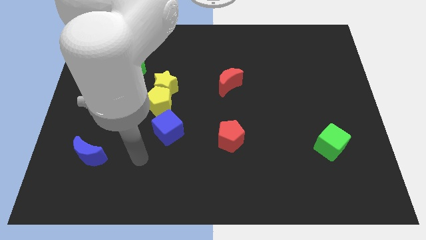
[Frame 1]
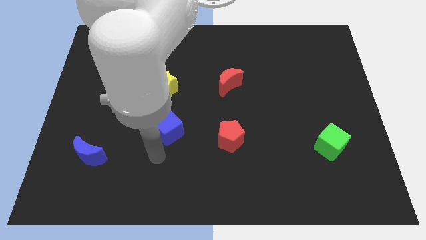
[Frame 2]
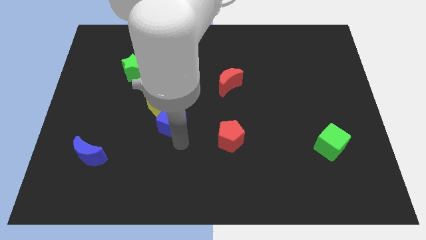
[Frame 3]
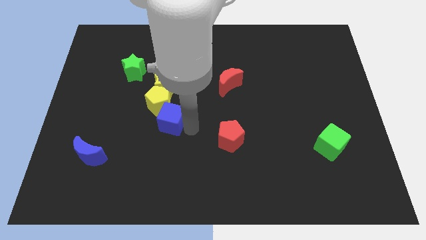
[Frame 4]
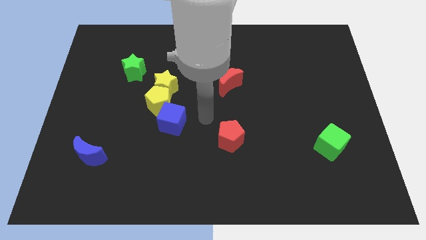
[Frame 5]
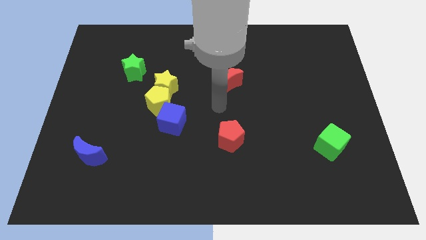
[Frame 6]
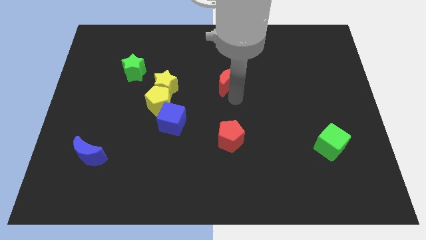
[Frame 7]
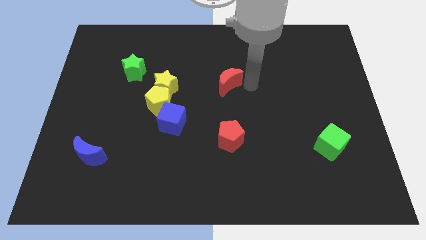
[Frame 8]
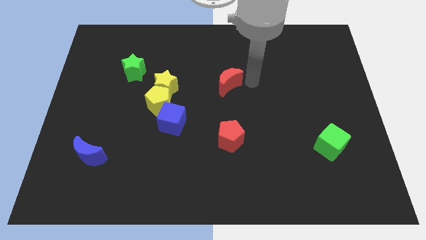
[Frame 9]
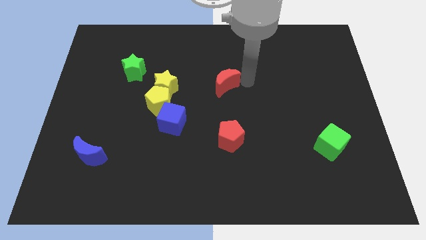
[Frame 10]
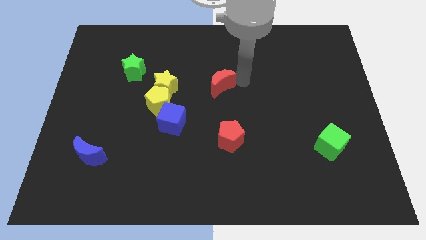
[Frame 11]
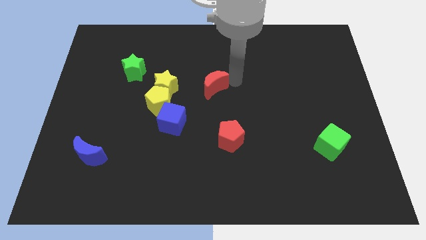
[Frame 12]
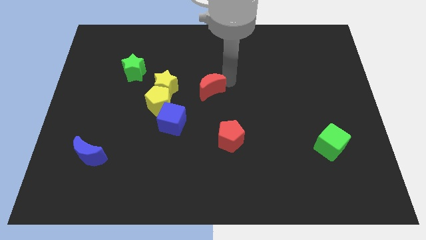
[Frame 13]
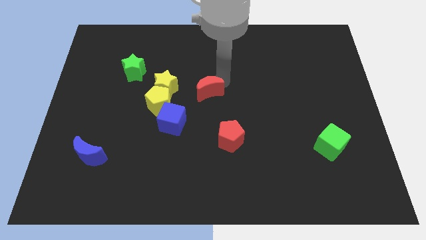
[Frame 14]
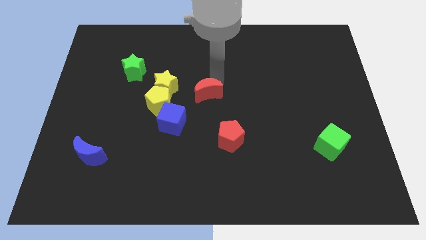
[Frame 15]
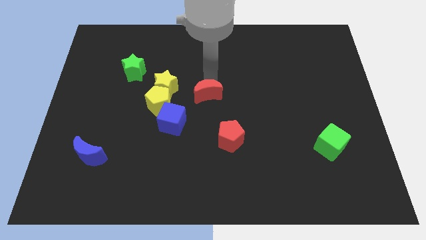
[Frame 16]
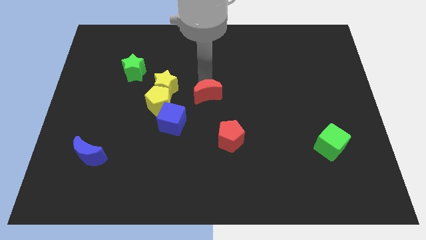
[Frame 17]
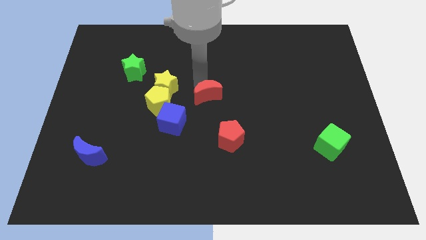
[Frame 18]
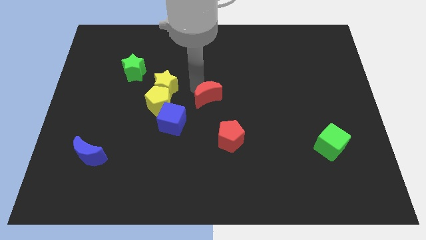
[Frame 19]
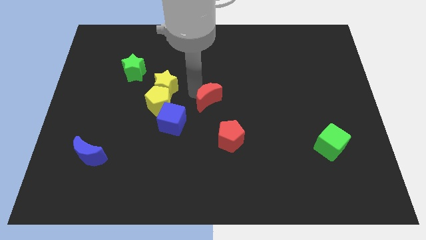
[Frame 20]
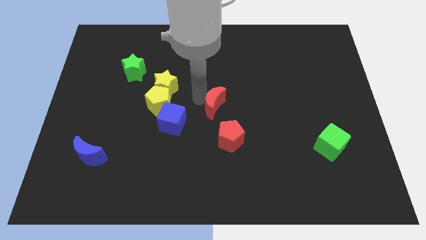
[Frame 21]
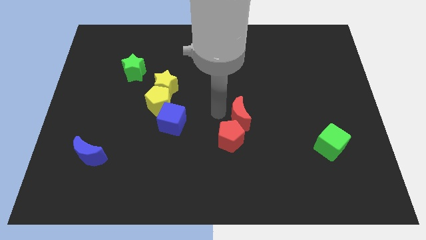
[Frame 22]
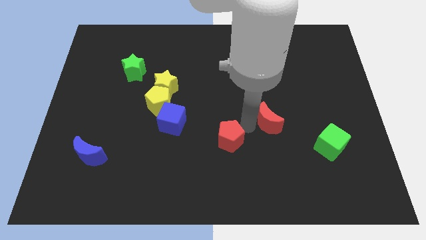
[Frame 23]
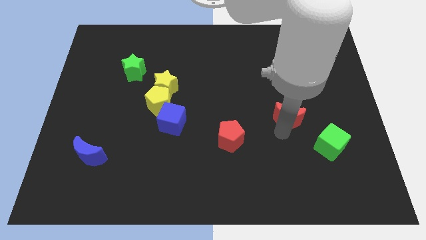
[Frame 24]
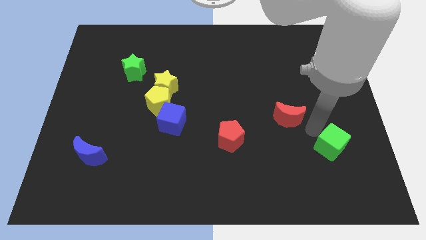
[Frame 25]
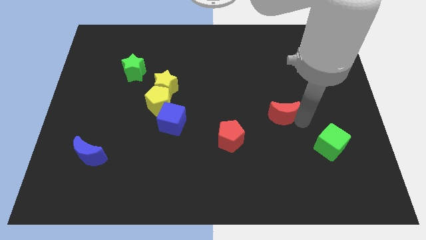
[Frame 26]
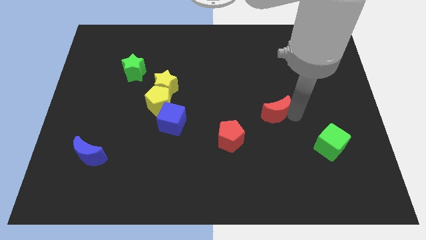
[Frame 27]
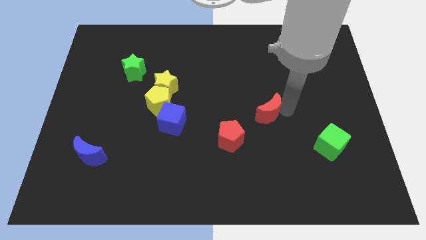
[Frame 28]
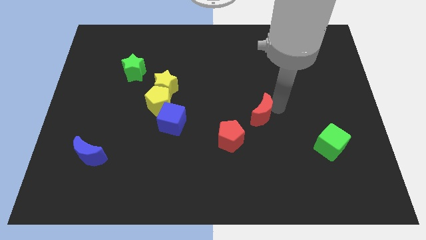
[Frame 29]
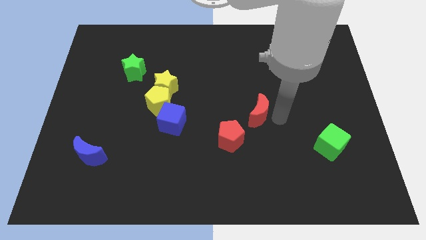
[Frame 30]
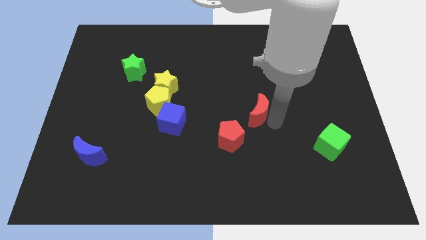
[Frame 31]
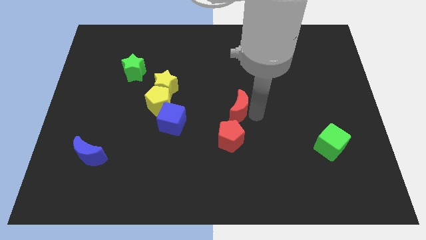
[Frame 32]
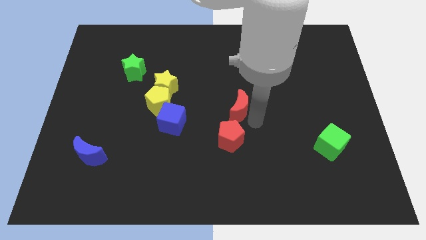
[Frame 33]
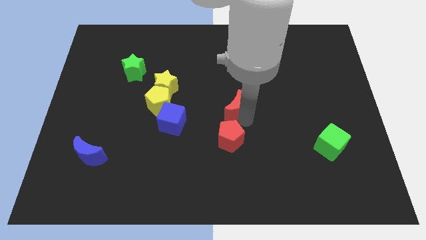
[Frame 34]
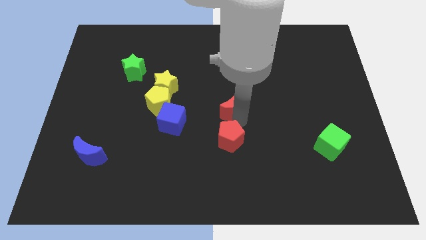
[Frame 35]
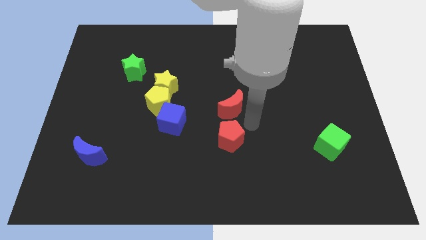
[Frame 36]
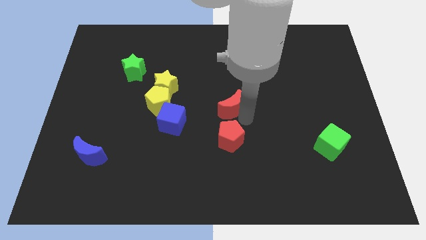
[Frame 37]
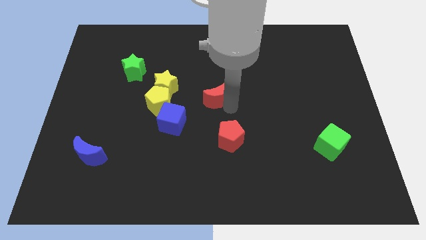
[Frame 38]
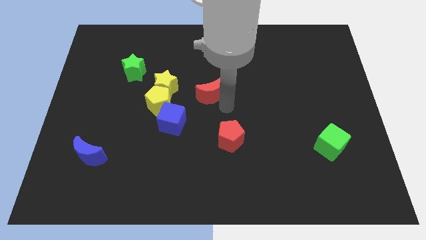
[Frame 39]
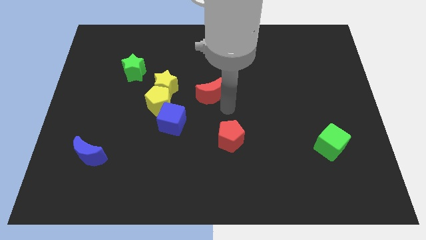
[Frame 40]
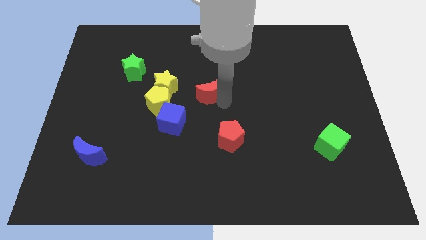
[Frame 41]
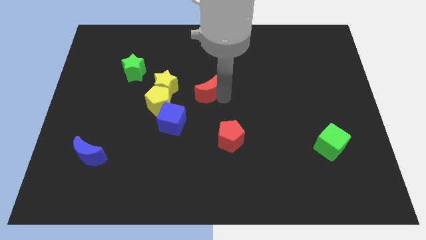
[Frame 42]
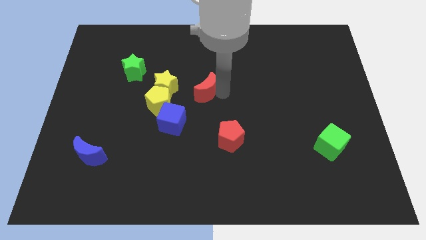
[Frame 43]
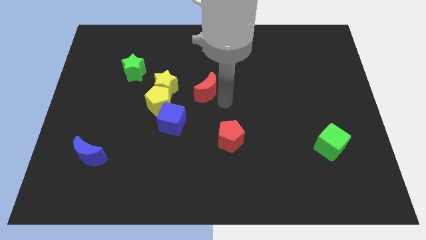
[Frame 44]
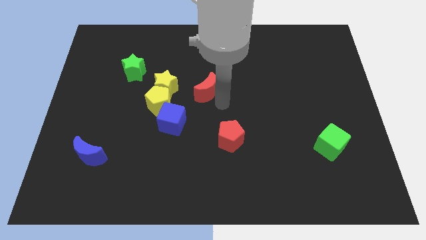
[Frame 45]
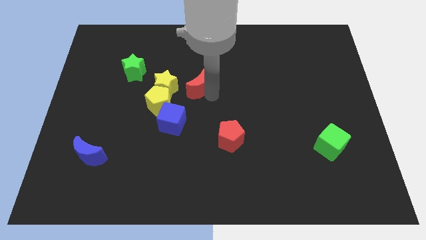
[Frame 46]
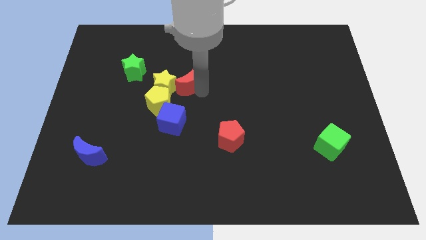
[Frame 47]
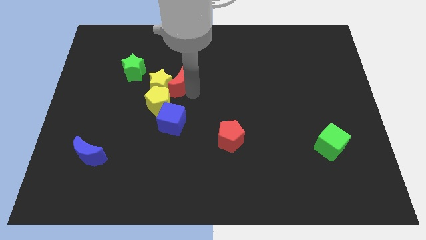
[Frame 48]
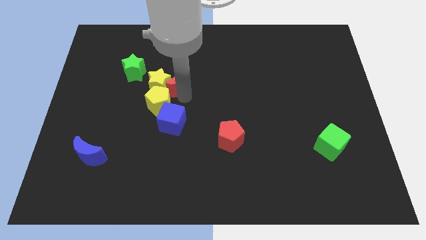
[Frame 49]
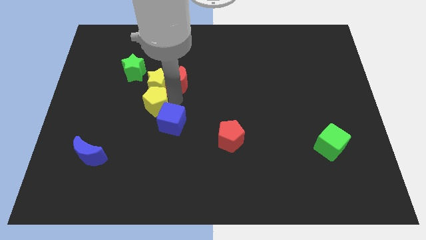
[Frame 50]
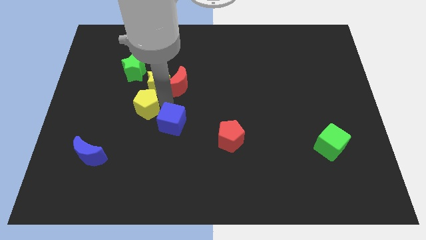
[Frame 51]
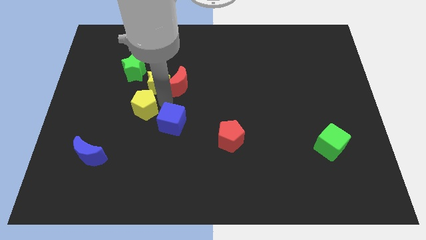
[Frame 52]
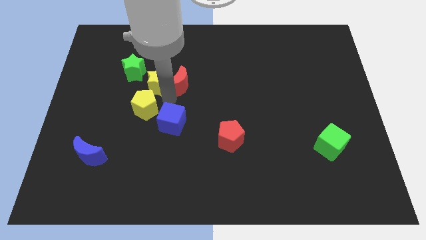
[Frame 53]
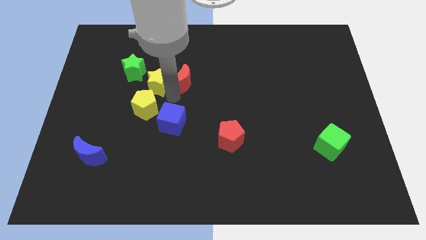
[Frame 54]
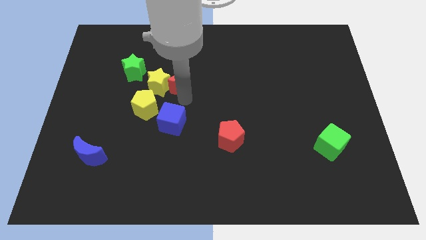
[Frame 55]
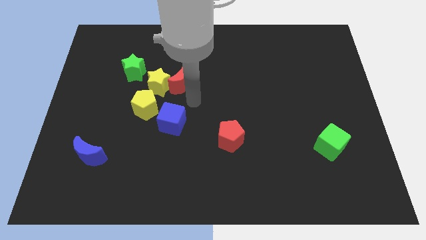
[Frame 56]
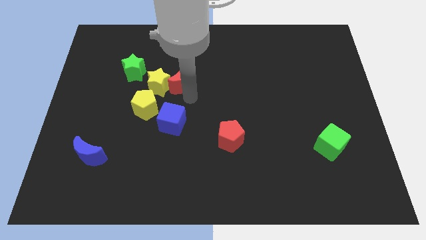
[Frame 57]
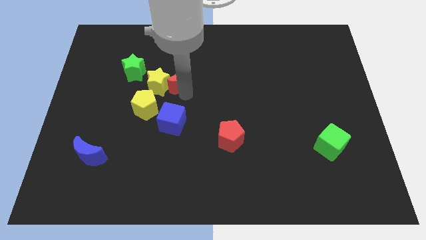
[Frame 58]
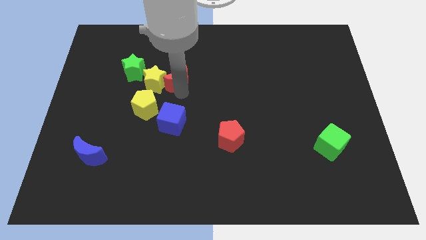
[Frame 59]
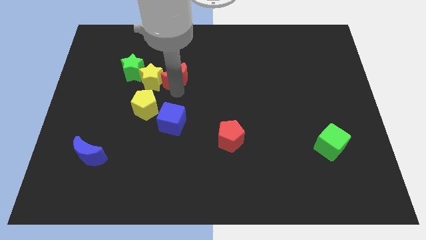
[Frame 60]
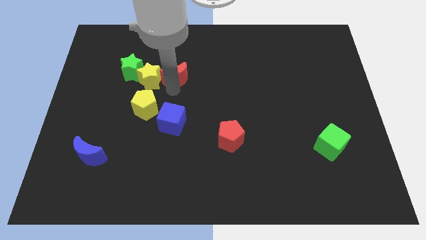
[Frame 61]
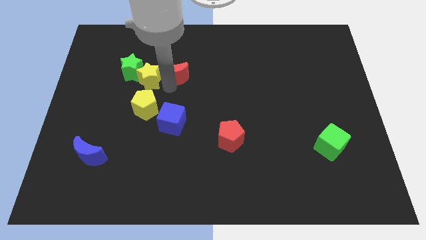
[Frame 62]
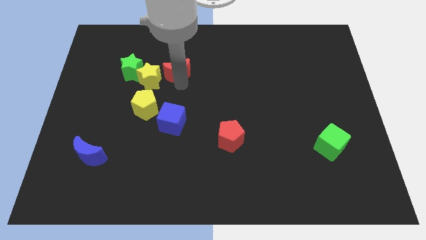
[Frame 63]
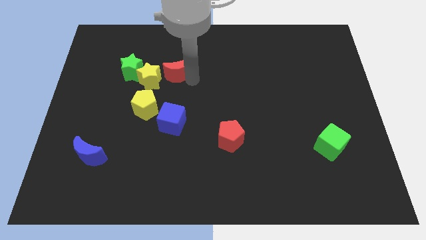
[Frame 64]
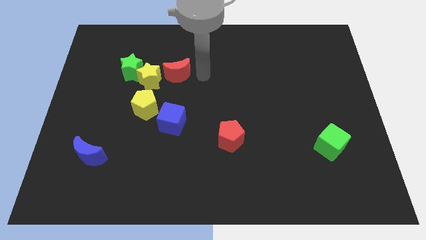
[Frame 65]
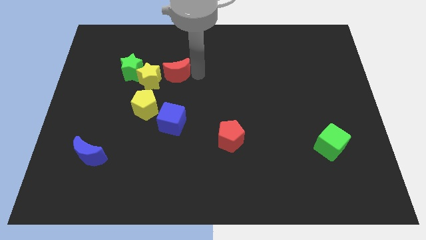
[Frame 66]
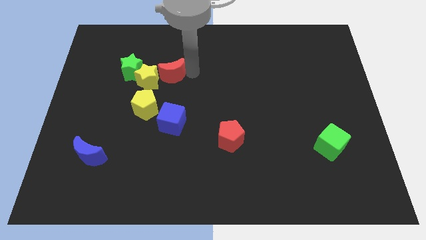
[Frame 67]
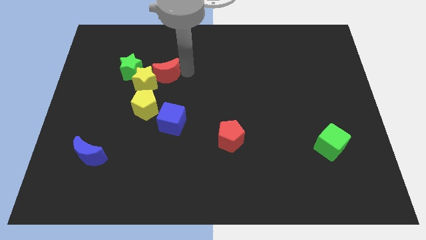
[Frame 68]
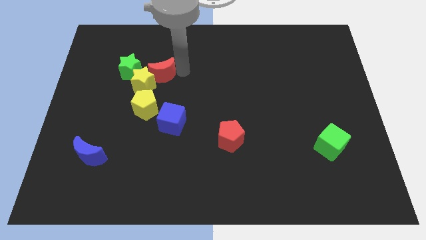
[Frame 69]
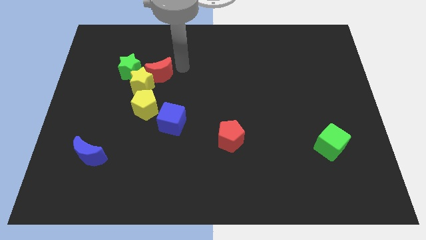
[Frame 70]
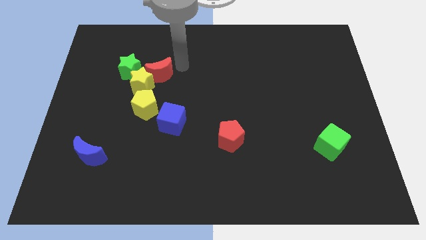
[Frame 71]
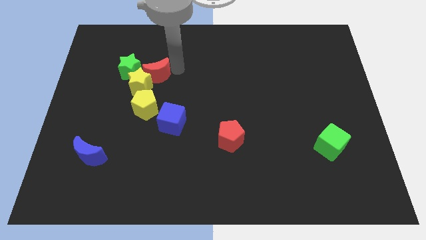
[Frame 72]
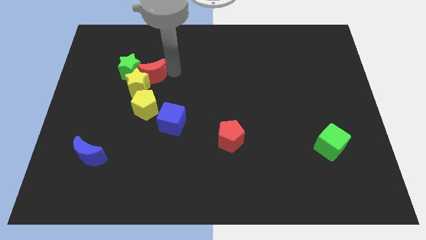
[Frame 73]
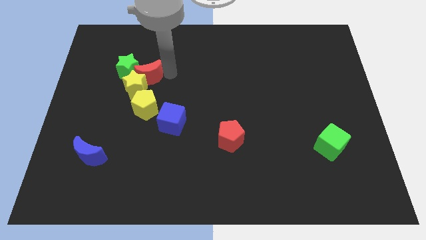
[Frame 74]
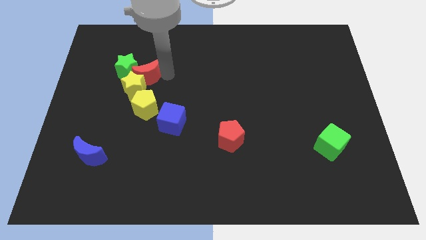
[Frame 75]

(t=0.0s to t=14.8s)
move the red moon to the left

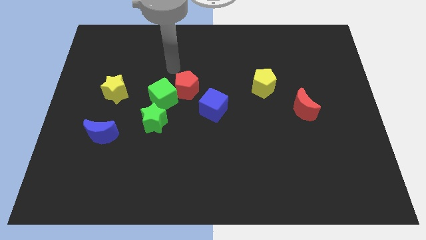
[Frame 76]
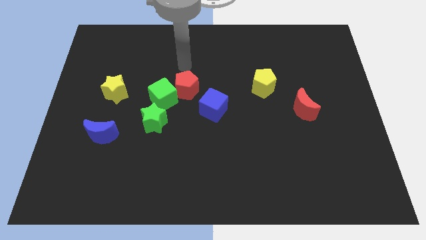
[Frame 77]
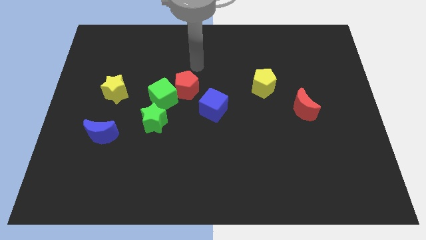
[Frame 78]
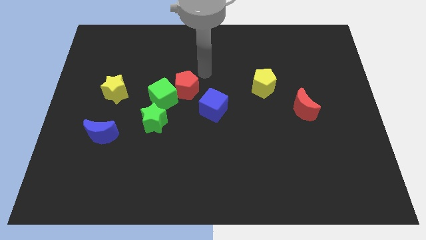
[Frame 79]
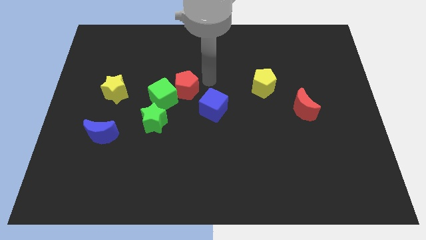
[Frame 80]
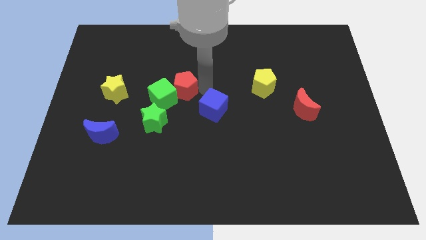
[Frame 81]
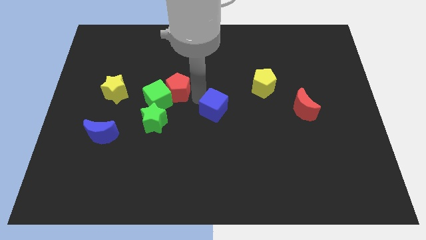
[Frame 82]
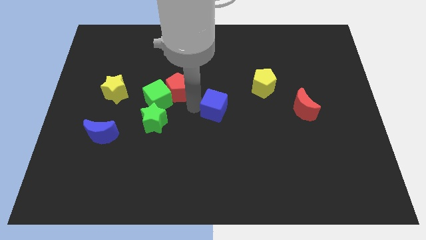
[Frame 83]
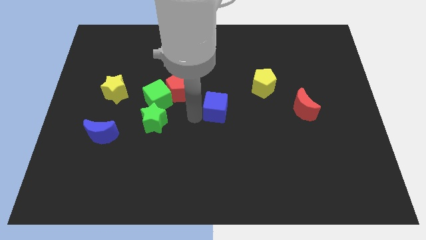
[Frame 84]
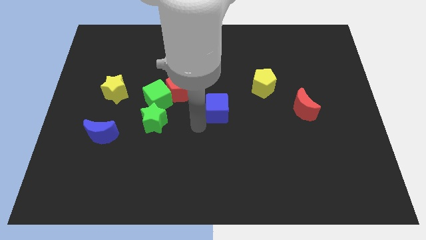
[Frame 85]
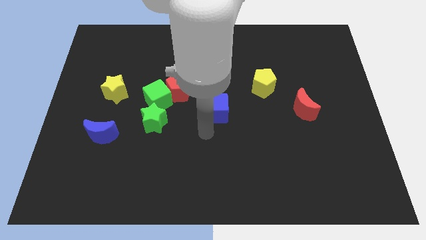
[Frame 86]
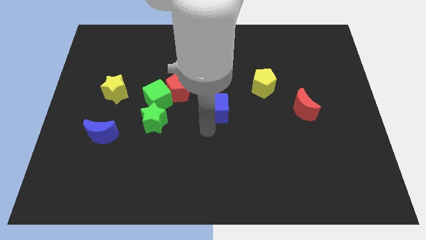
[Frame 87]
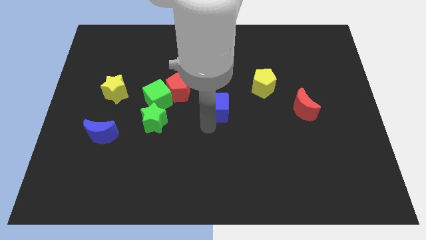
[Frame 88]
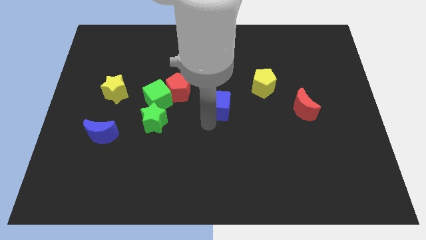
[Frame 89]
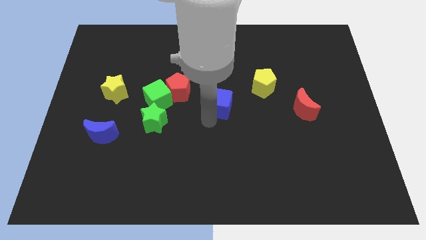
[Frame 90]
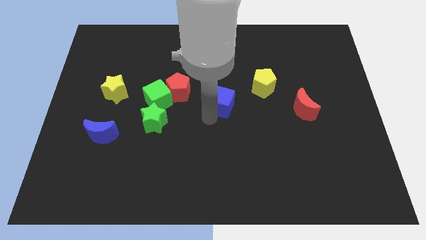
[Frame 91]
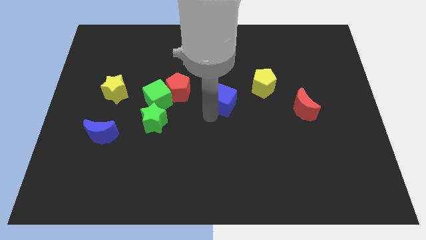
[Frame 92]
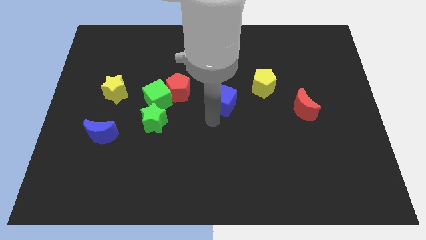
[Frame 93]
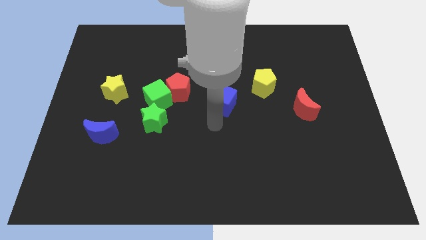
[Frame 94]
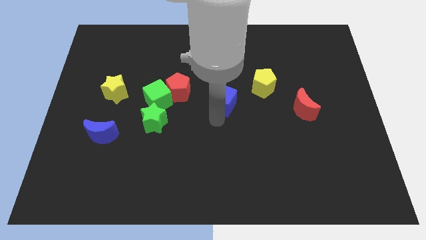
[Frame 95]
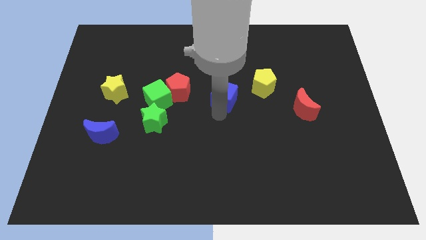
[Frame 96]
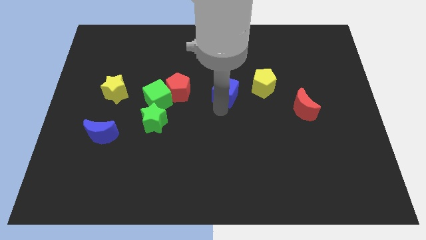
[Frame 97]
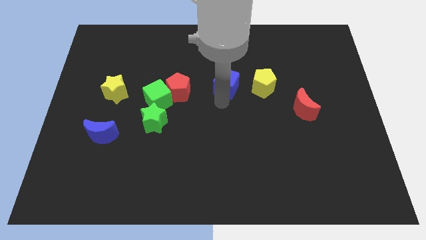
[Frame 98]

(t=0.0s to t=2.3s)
push the blue cube up and to the right diagonally slightly
